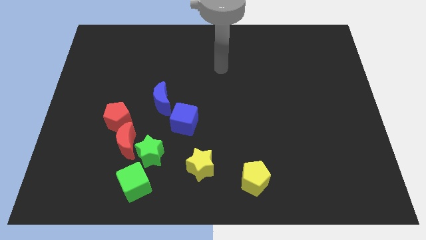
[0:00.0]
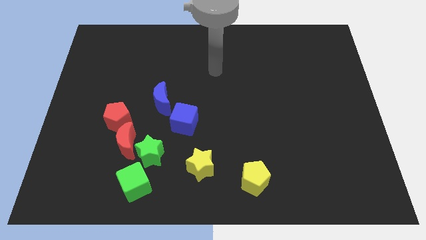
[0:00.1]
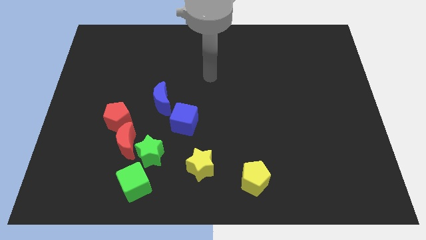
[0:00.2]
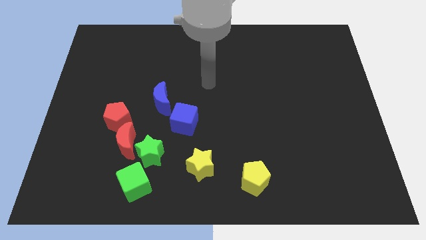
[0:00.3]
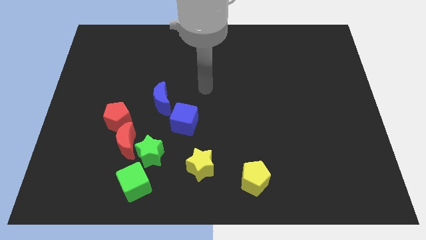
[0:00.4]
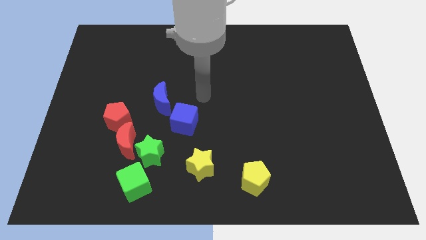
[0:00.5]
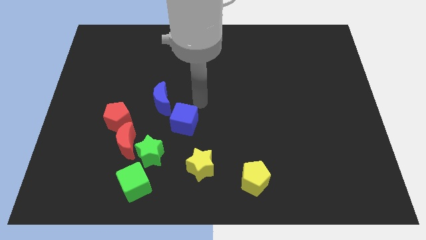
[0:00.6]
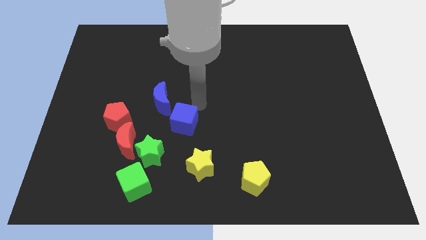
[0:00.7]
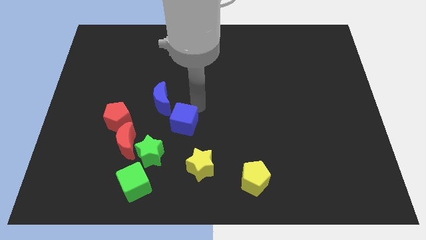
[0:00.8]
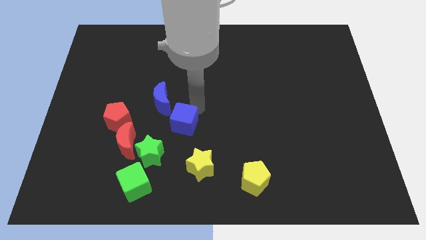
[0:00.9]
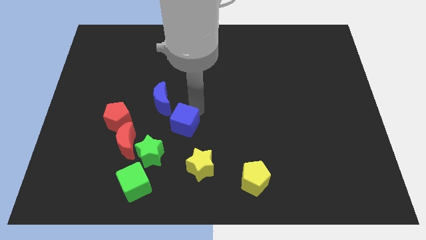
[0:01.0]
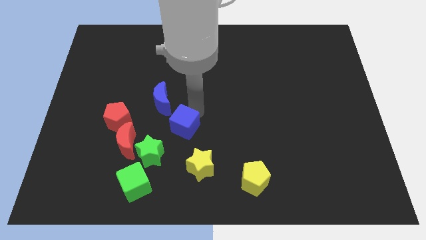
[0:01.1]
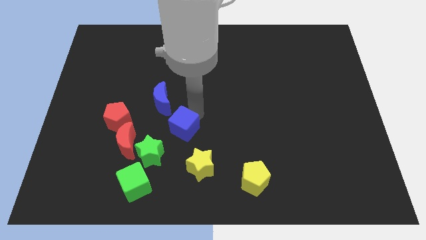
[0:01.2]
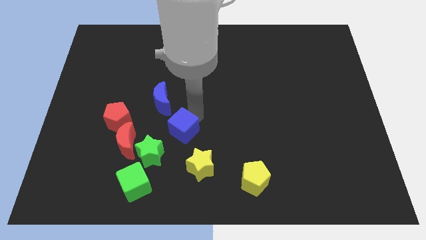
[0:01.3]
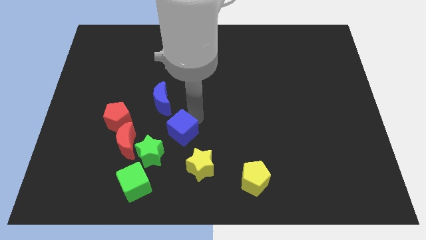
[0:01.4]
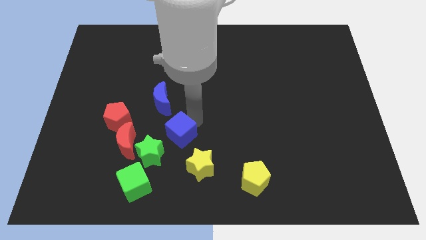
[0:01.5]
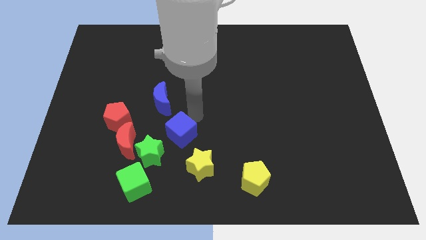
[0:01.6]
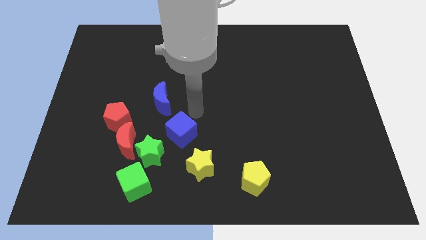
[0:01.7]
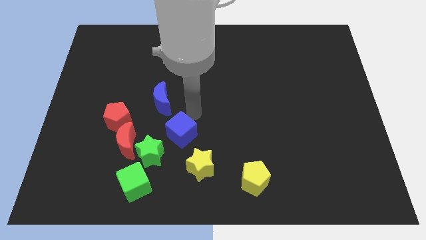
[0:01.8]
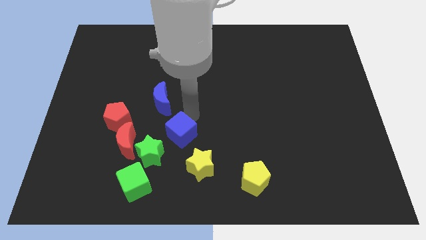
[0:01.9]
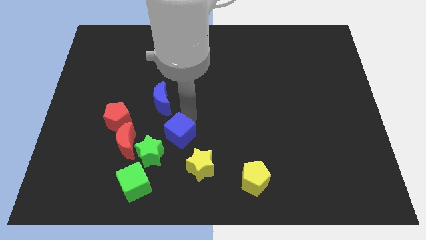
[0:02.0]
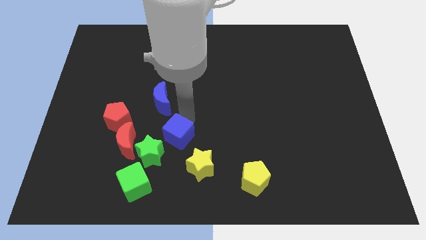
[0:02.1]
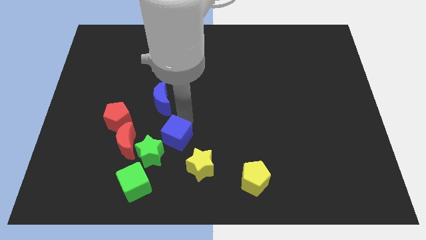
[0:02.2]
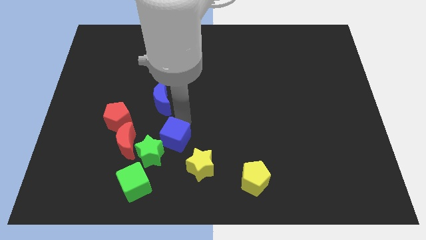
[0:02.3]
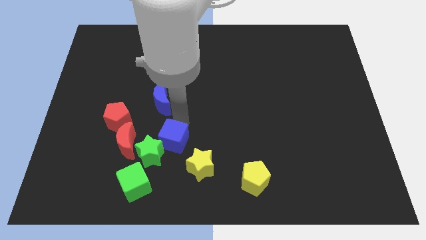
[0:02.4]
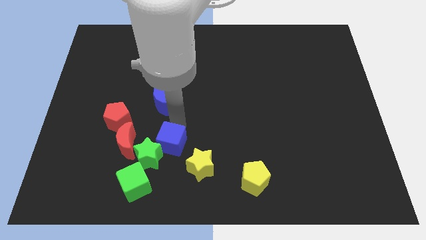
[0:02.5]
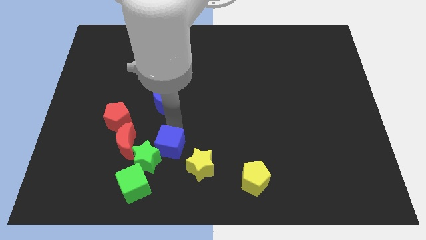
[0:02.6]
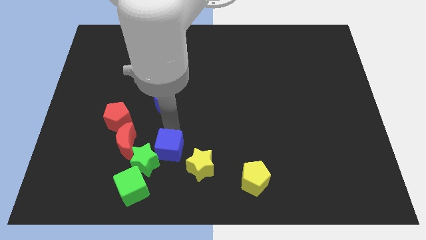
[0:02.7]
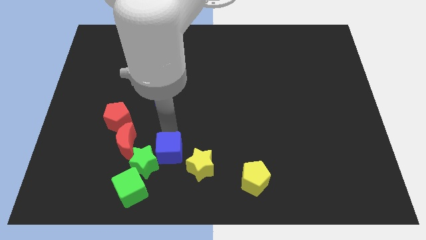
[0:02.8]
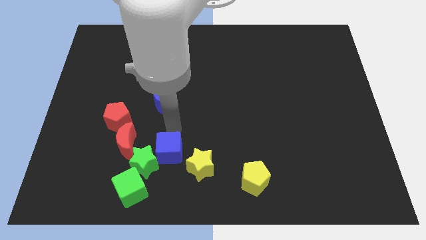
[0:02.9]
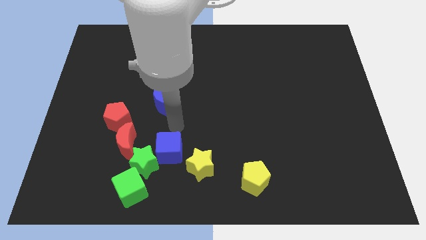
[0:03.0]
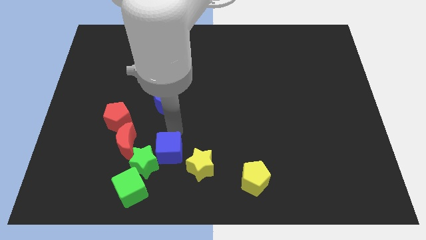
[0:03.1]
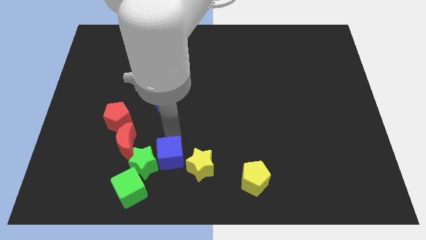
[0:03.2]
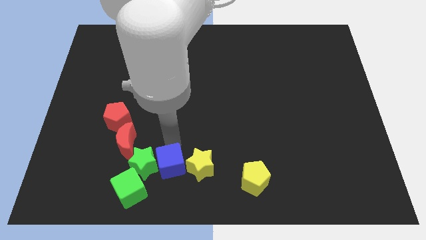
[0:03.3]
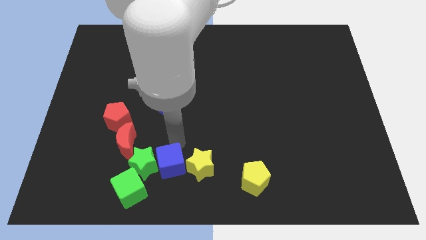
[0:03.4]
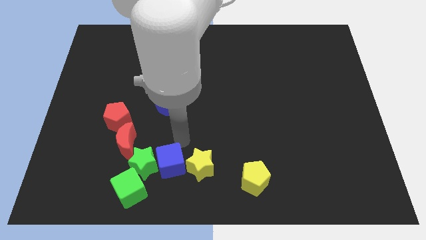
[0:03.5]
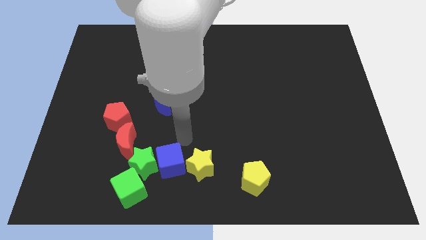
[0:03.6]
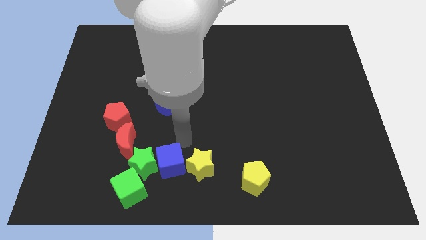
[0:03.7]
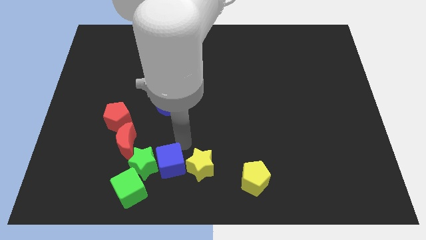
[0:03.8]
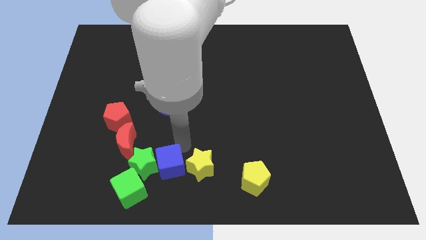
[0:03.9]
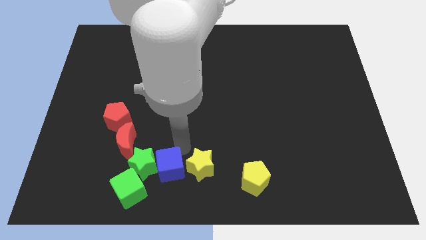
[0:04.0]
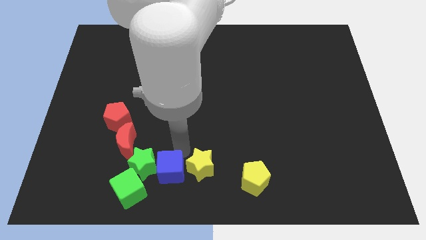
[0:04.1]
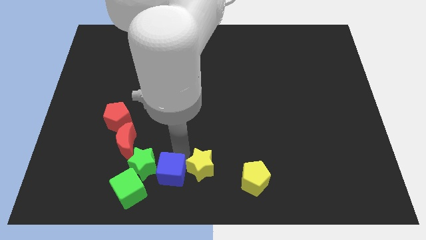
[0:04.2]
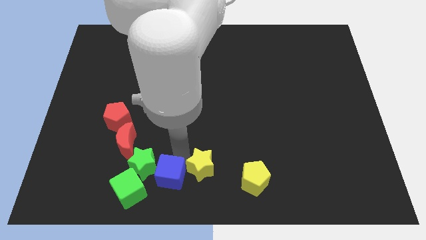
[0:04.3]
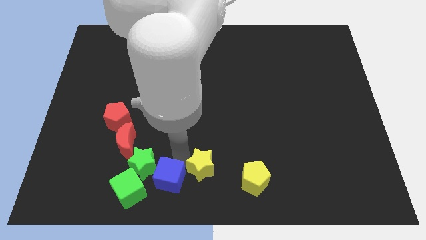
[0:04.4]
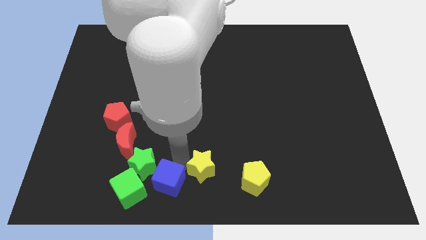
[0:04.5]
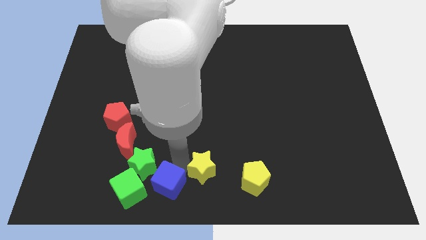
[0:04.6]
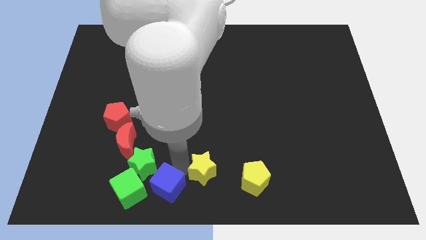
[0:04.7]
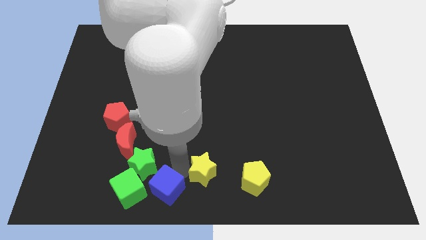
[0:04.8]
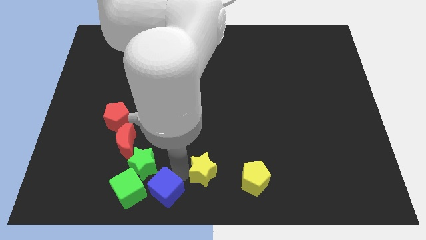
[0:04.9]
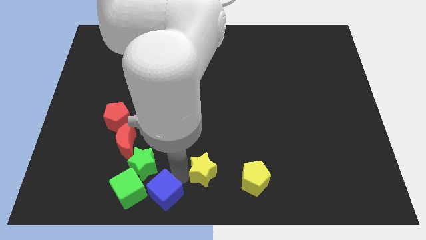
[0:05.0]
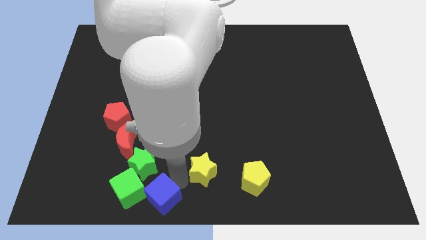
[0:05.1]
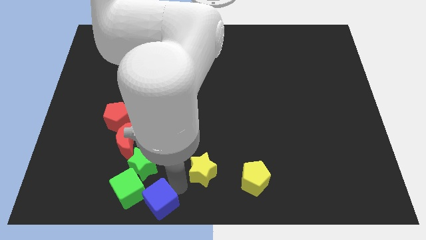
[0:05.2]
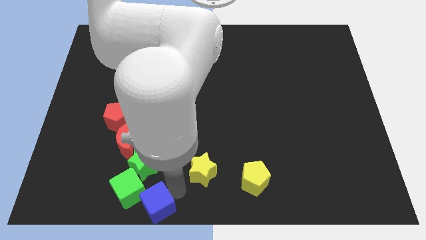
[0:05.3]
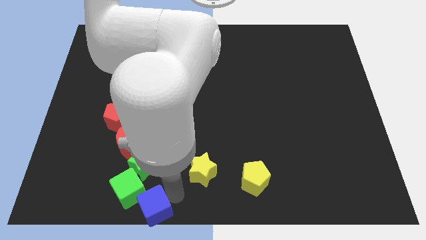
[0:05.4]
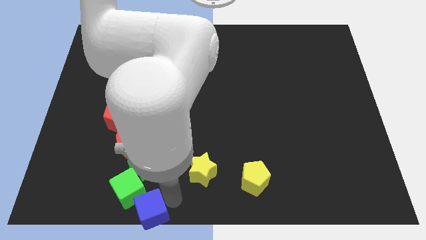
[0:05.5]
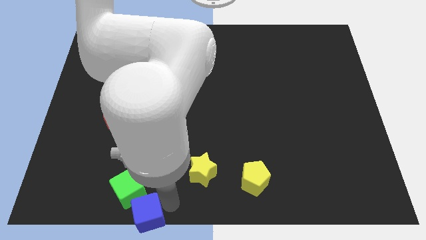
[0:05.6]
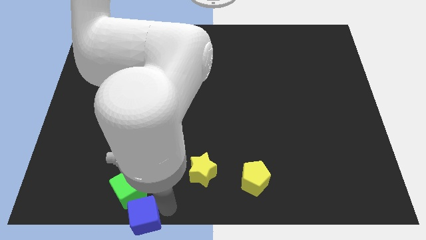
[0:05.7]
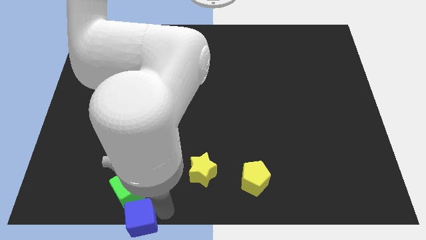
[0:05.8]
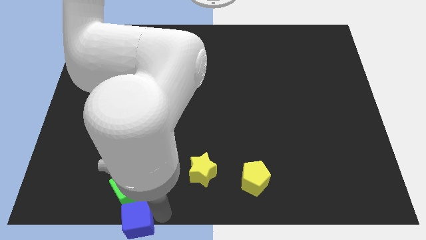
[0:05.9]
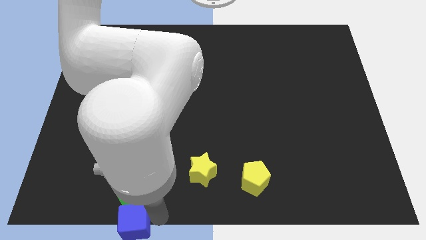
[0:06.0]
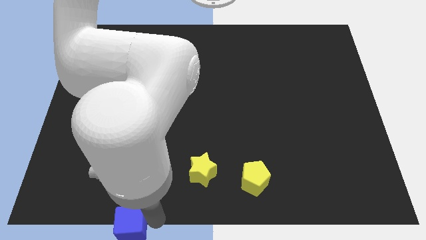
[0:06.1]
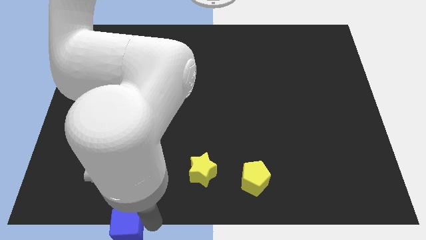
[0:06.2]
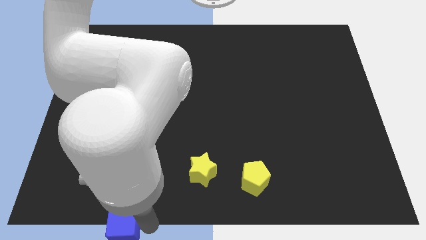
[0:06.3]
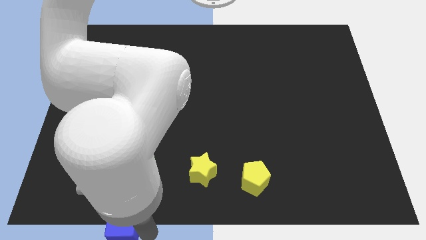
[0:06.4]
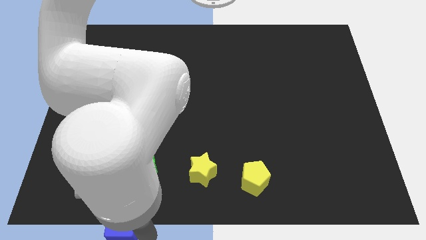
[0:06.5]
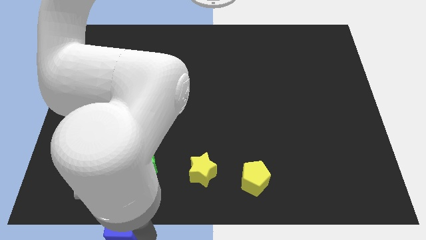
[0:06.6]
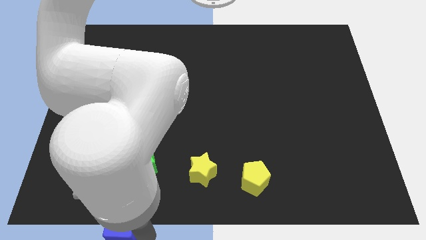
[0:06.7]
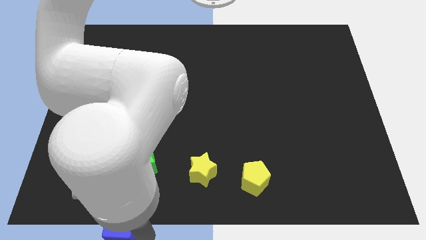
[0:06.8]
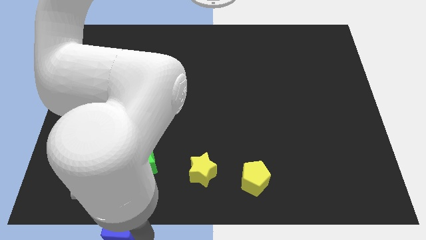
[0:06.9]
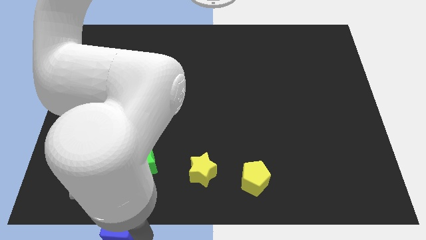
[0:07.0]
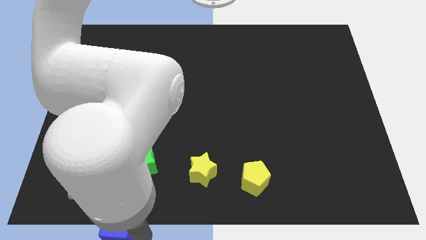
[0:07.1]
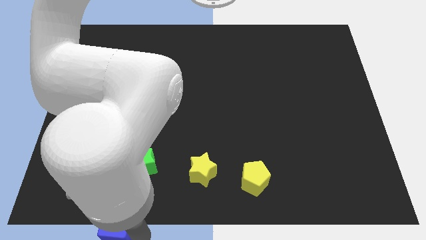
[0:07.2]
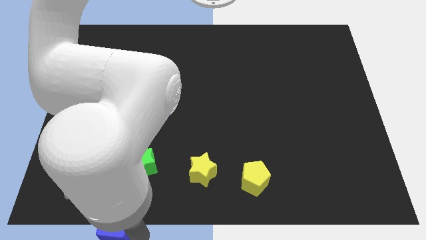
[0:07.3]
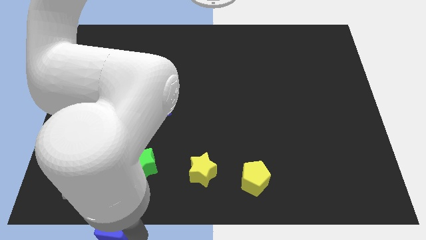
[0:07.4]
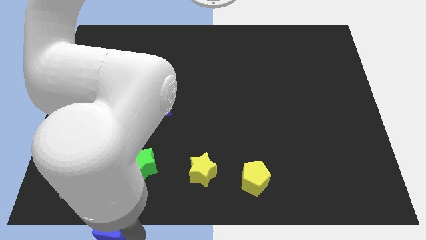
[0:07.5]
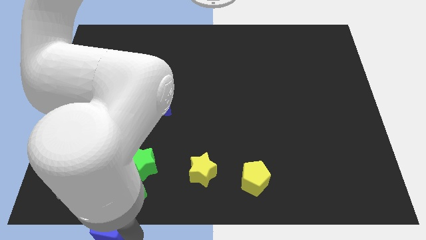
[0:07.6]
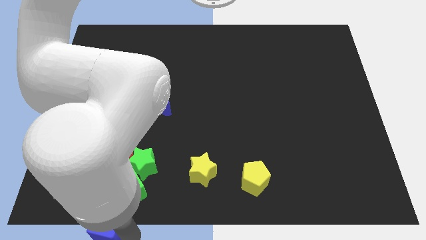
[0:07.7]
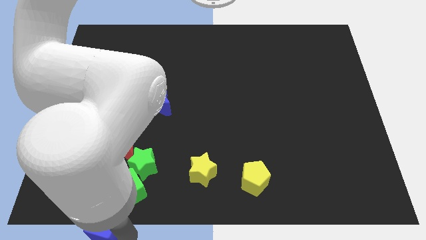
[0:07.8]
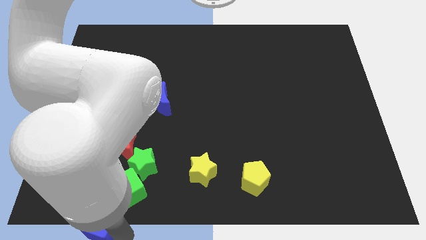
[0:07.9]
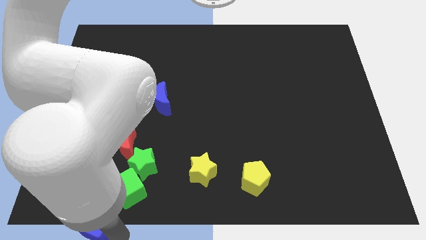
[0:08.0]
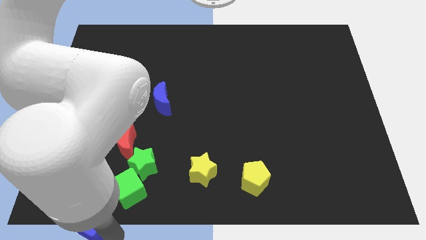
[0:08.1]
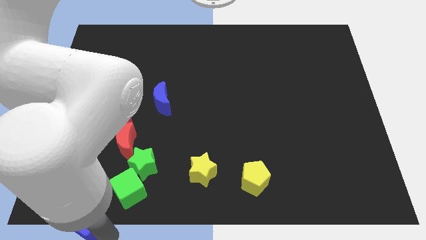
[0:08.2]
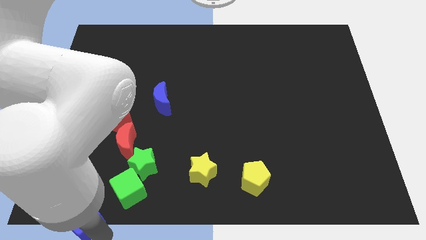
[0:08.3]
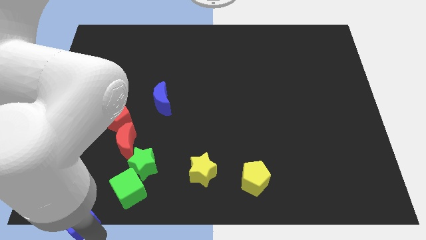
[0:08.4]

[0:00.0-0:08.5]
put the blue cube to the bottom left
